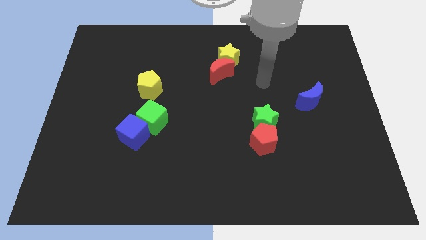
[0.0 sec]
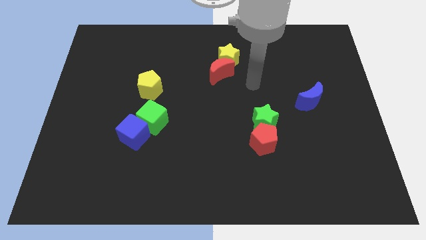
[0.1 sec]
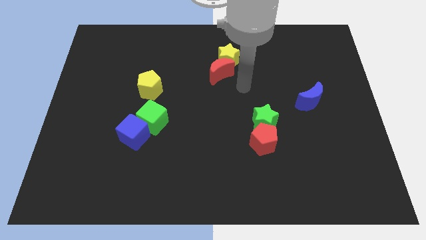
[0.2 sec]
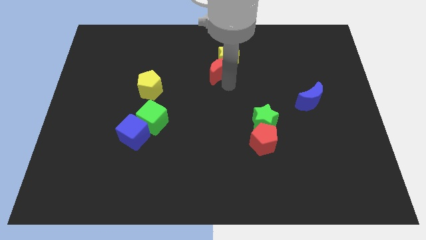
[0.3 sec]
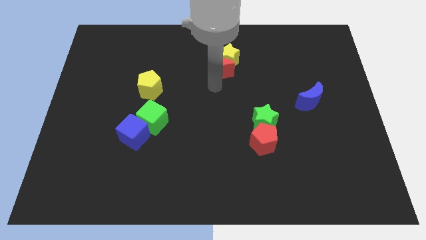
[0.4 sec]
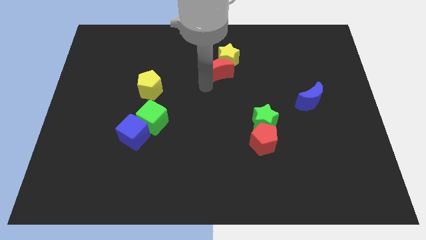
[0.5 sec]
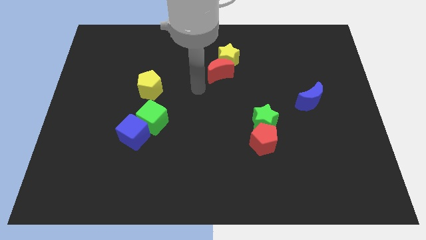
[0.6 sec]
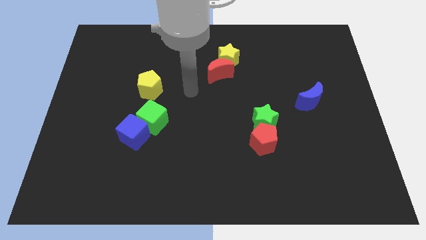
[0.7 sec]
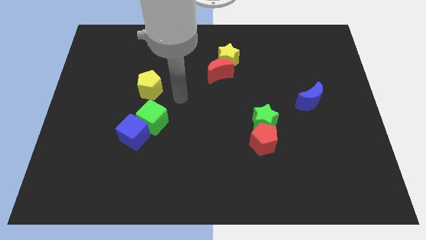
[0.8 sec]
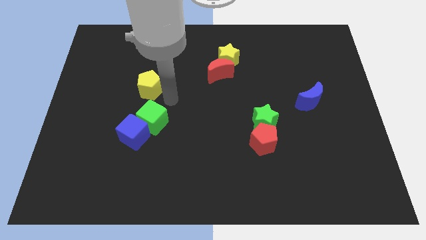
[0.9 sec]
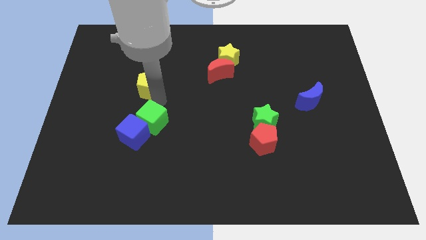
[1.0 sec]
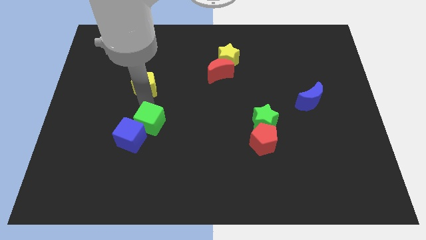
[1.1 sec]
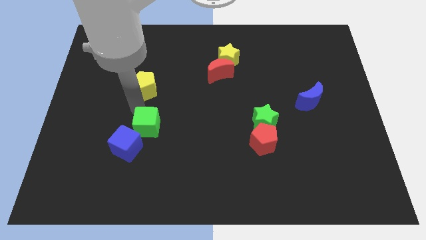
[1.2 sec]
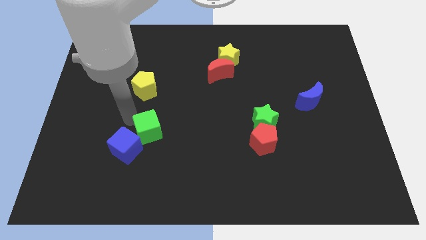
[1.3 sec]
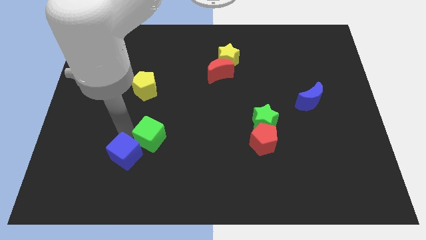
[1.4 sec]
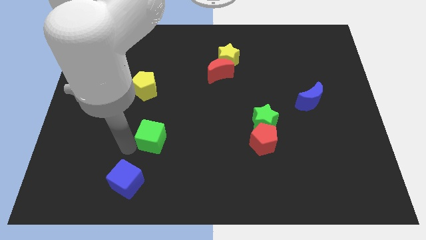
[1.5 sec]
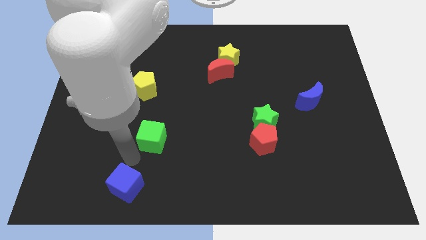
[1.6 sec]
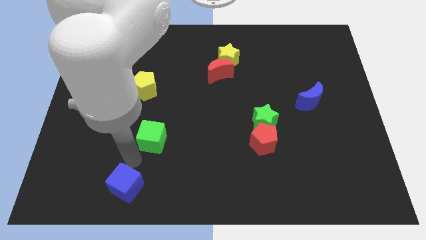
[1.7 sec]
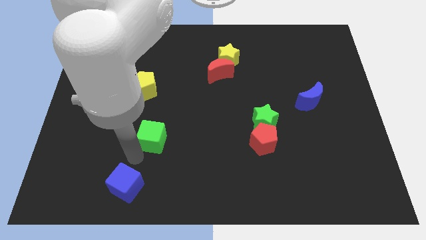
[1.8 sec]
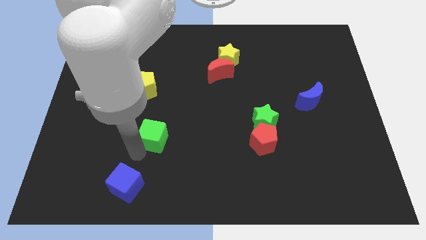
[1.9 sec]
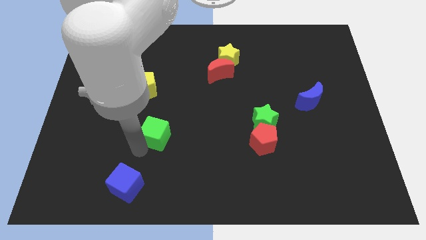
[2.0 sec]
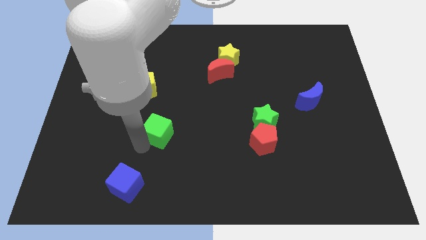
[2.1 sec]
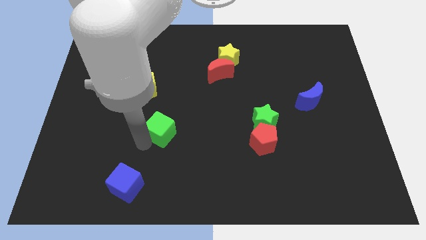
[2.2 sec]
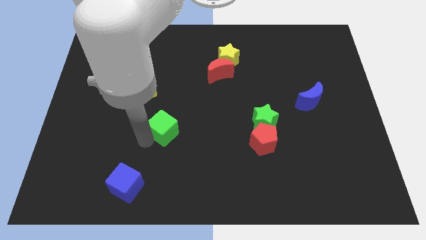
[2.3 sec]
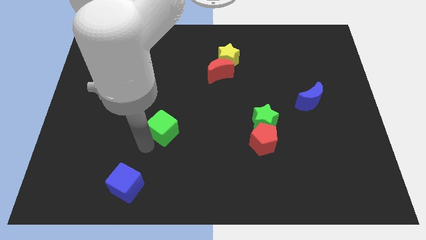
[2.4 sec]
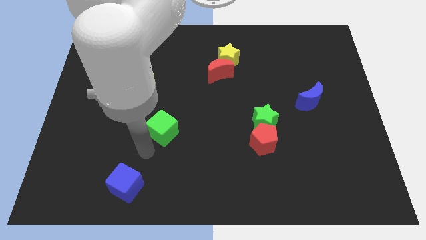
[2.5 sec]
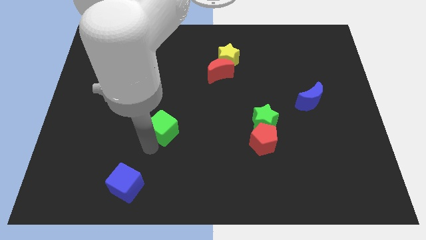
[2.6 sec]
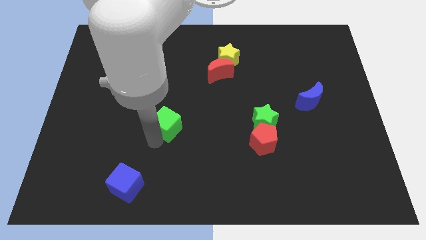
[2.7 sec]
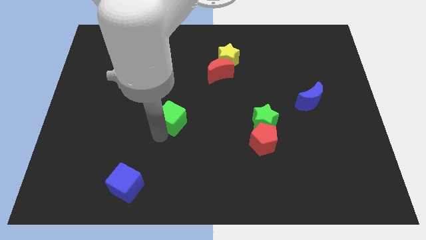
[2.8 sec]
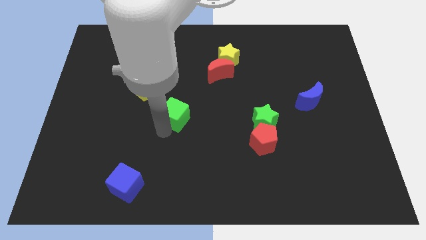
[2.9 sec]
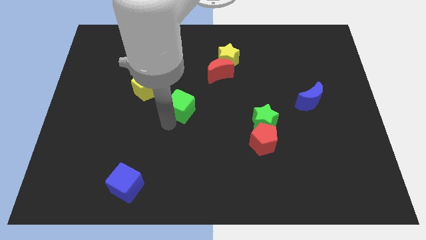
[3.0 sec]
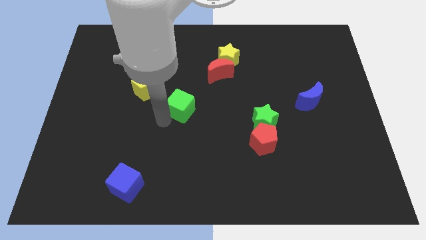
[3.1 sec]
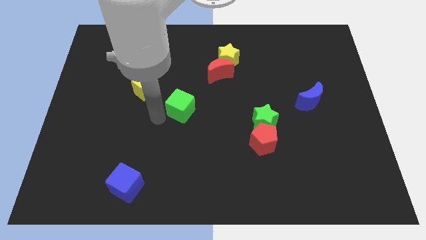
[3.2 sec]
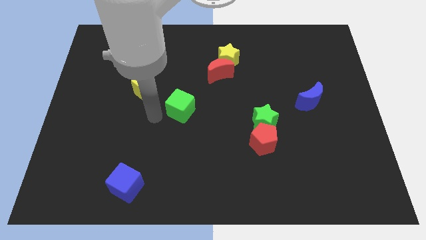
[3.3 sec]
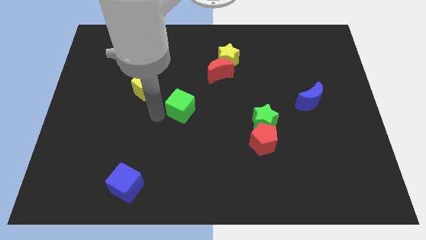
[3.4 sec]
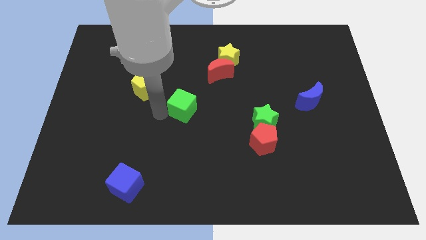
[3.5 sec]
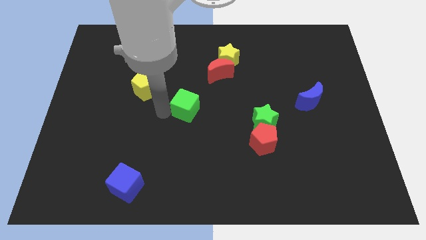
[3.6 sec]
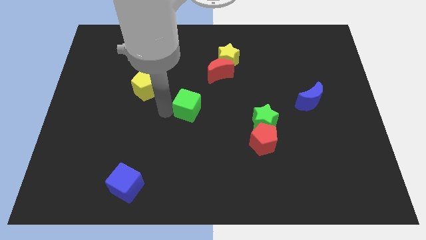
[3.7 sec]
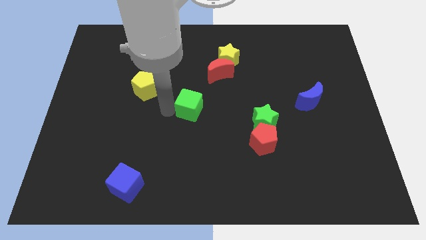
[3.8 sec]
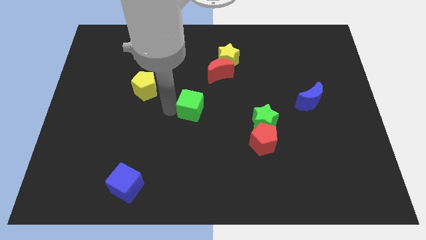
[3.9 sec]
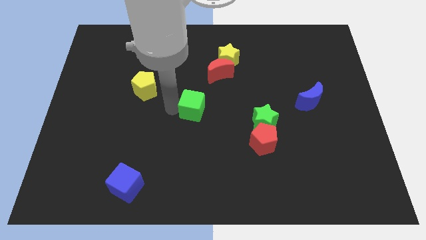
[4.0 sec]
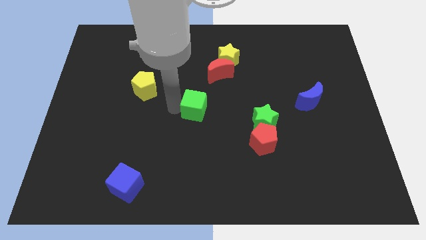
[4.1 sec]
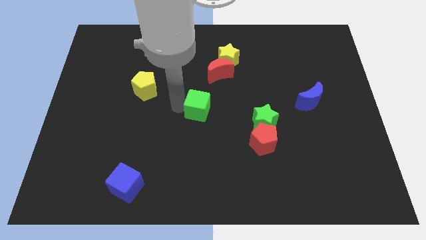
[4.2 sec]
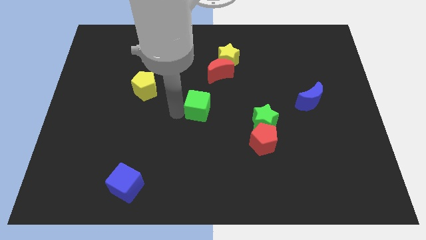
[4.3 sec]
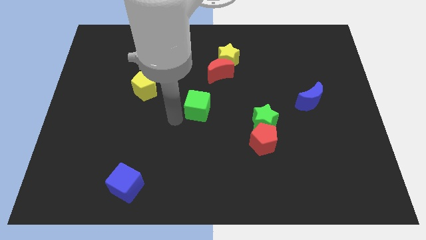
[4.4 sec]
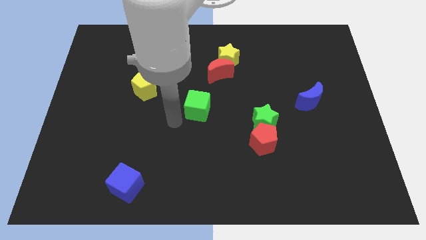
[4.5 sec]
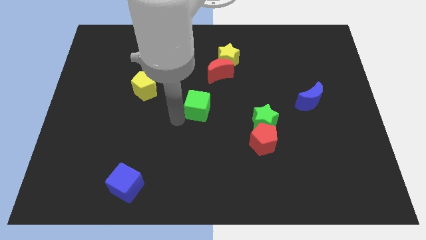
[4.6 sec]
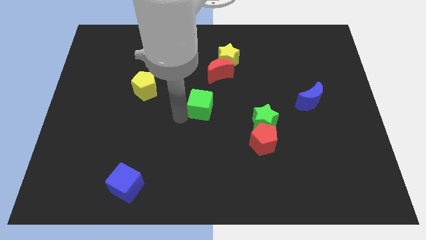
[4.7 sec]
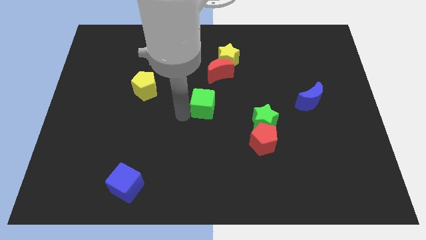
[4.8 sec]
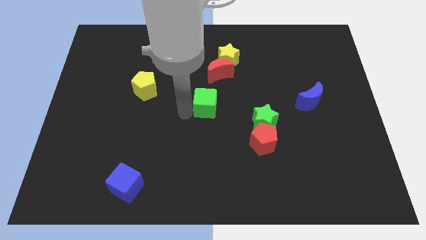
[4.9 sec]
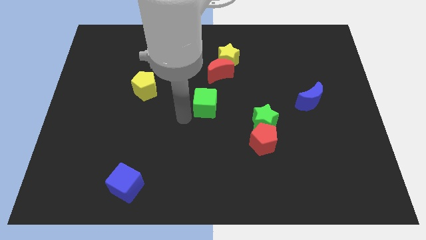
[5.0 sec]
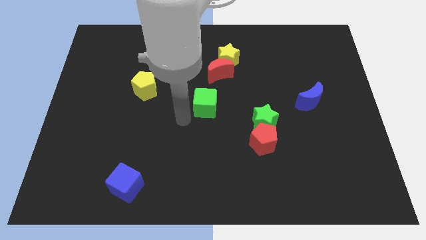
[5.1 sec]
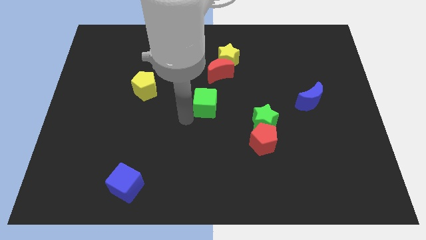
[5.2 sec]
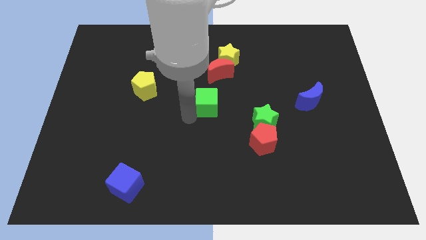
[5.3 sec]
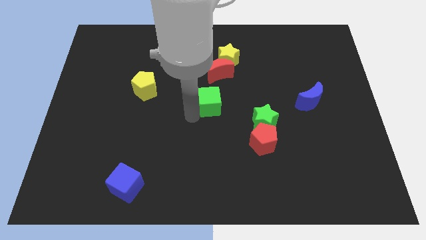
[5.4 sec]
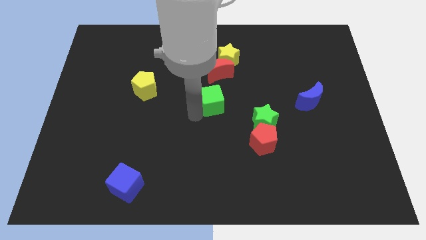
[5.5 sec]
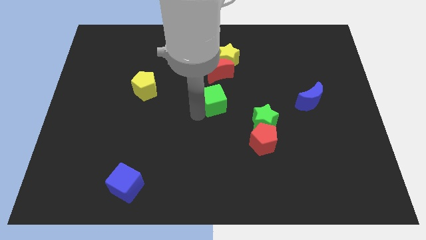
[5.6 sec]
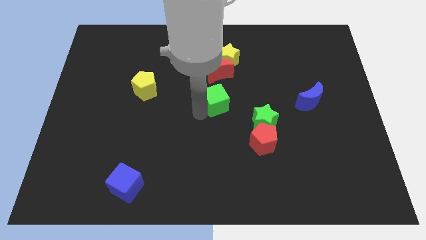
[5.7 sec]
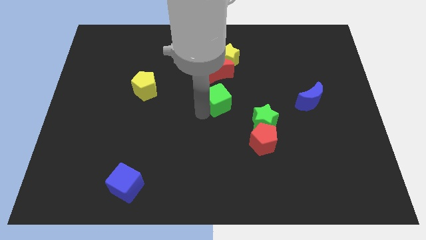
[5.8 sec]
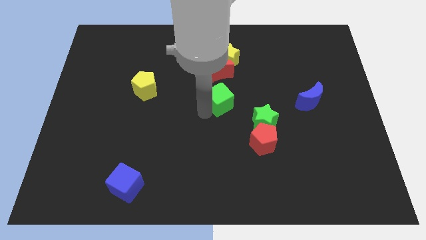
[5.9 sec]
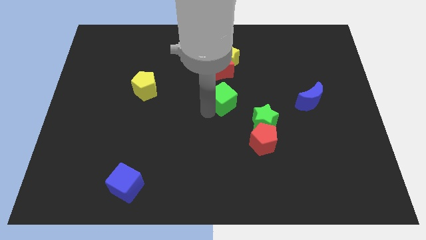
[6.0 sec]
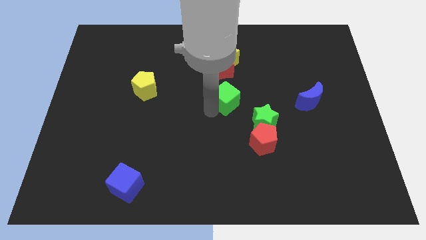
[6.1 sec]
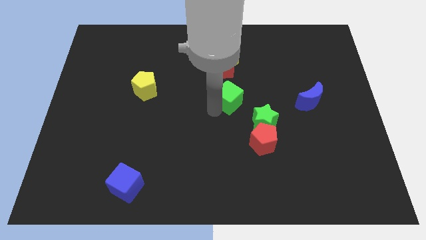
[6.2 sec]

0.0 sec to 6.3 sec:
push the green cube to the bottom right of the red moon

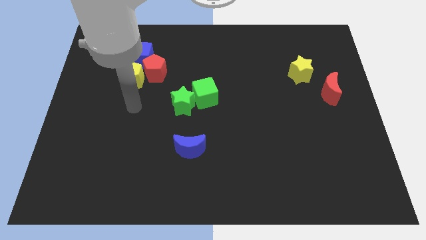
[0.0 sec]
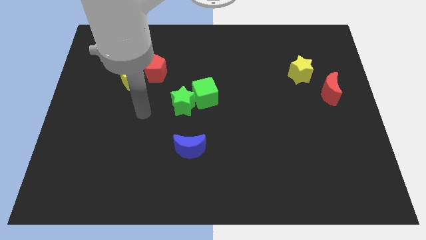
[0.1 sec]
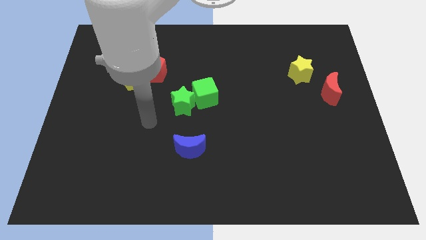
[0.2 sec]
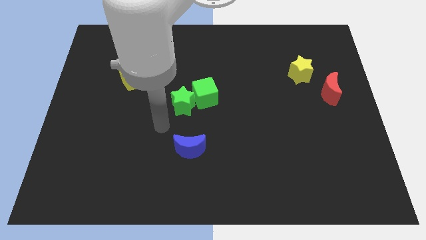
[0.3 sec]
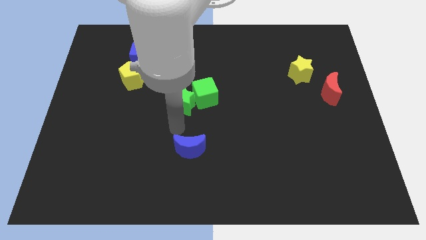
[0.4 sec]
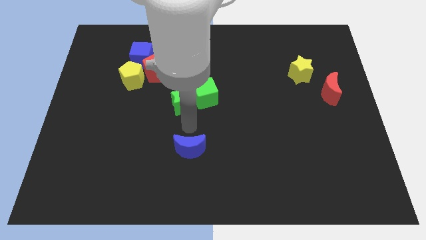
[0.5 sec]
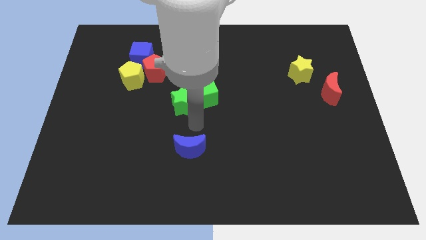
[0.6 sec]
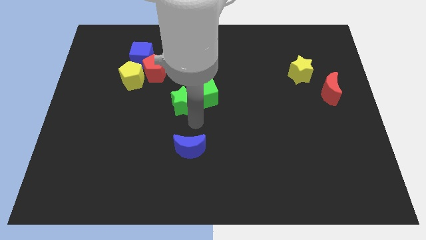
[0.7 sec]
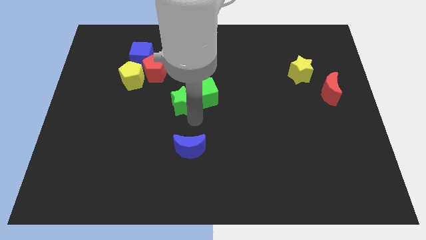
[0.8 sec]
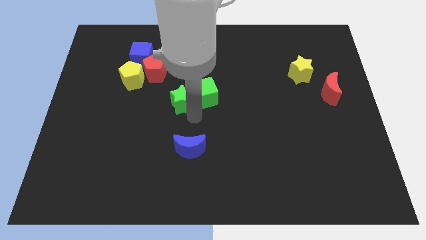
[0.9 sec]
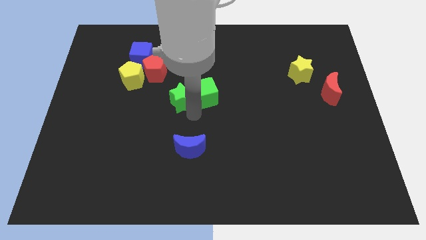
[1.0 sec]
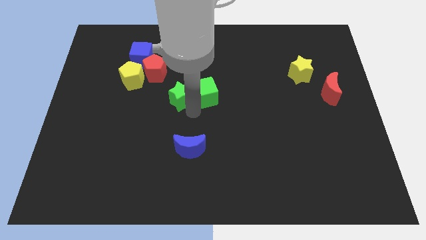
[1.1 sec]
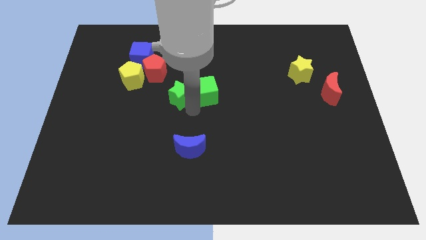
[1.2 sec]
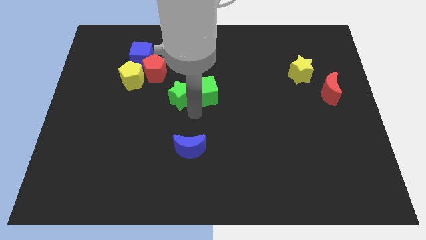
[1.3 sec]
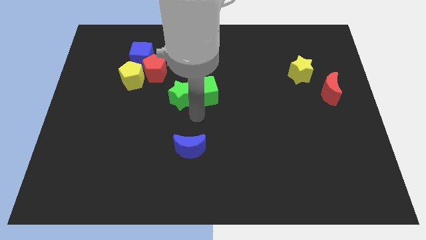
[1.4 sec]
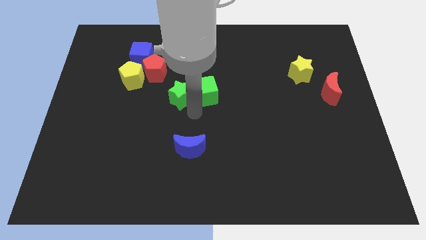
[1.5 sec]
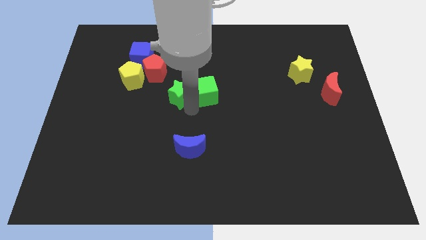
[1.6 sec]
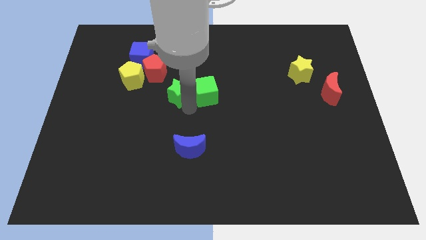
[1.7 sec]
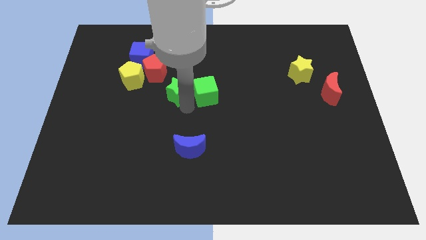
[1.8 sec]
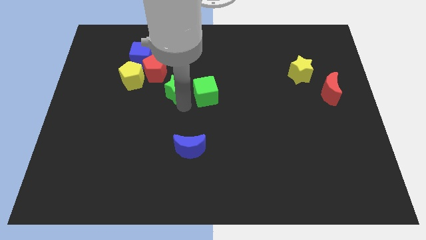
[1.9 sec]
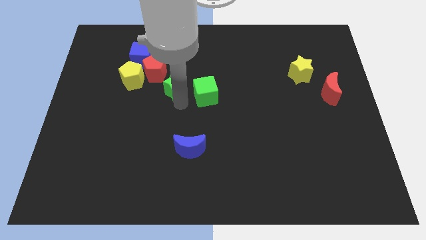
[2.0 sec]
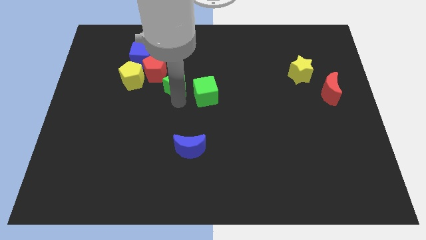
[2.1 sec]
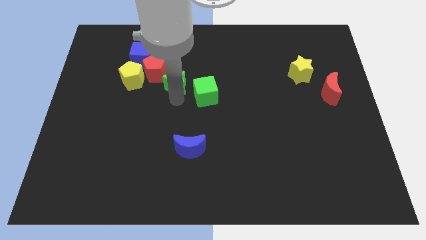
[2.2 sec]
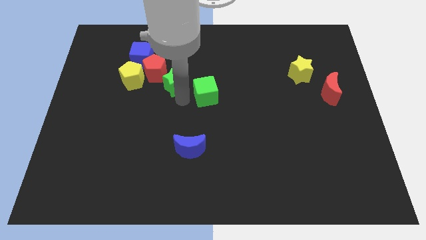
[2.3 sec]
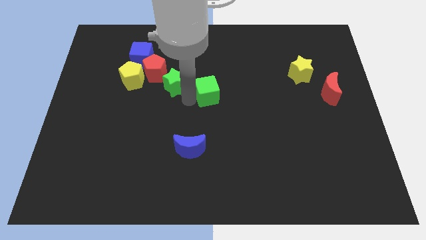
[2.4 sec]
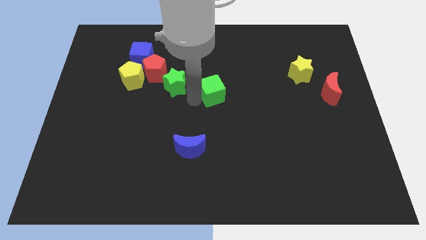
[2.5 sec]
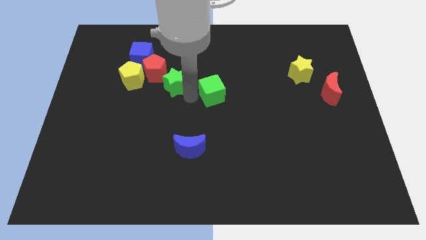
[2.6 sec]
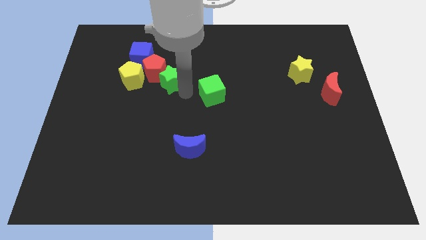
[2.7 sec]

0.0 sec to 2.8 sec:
push the green star to the bottom right of the blue cube
